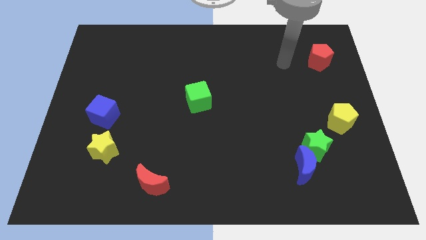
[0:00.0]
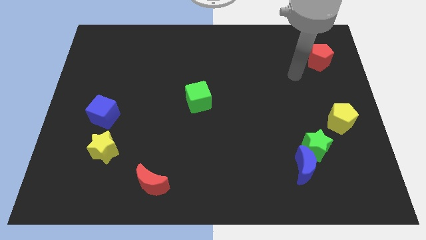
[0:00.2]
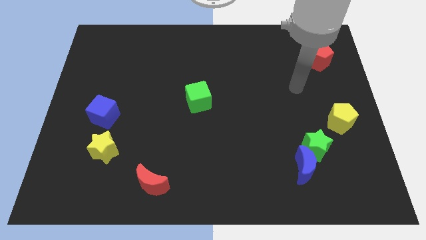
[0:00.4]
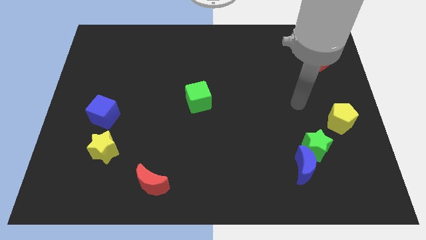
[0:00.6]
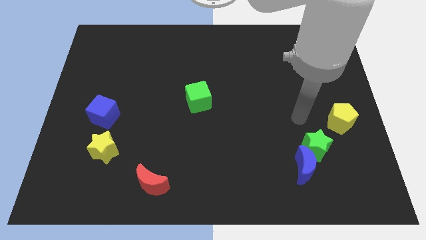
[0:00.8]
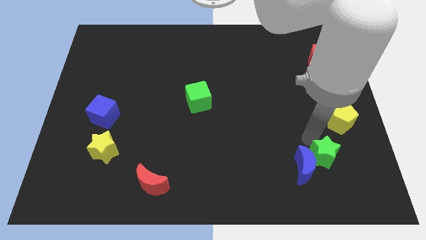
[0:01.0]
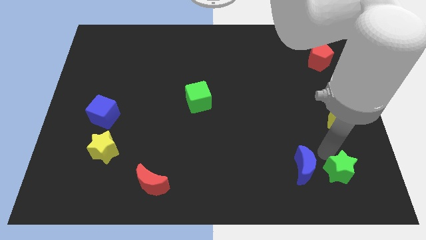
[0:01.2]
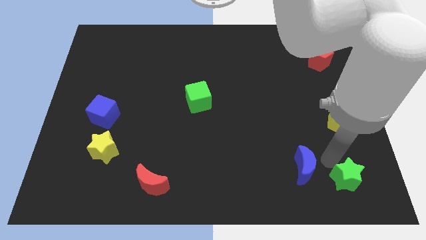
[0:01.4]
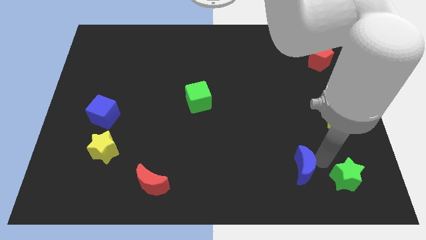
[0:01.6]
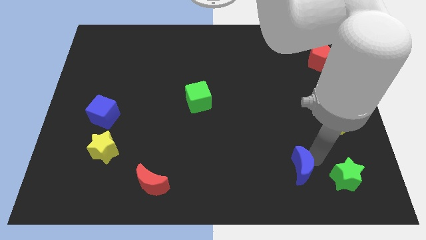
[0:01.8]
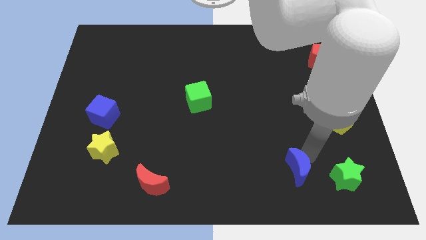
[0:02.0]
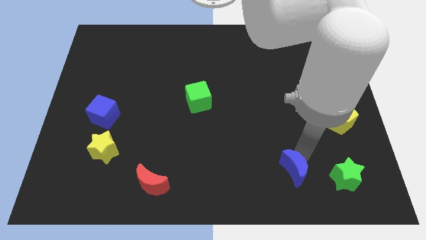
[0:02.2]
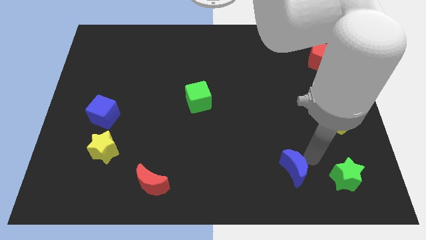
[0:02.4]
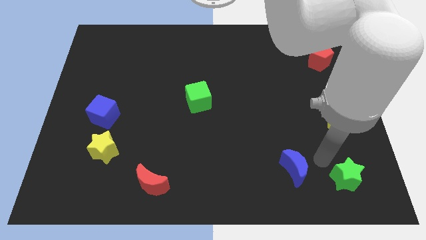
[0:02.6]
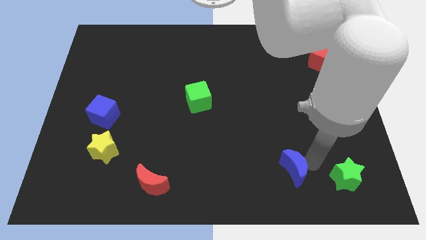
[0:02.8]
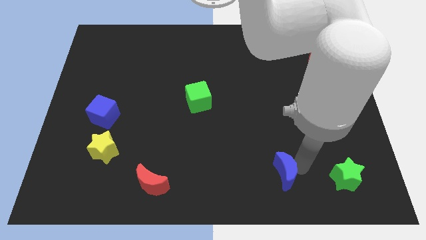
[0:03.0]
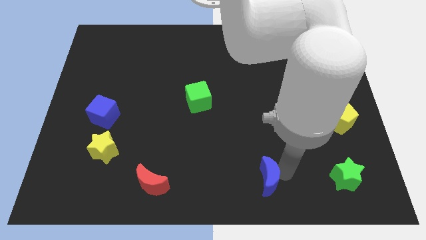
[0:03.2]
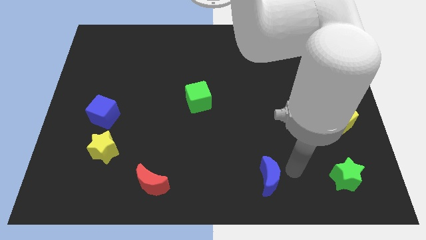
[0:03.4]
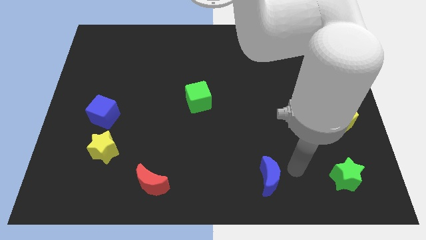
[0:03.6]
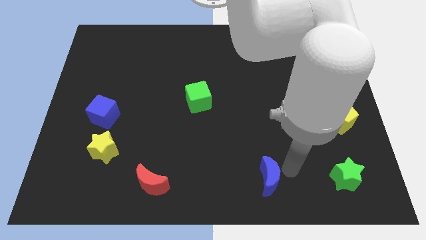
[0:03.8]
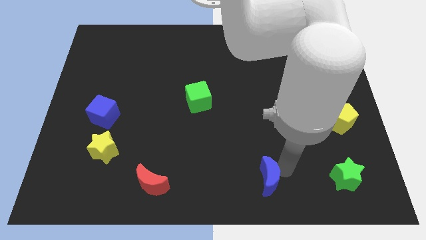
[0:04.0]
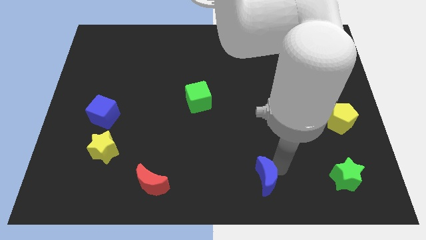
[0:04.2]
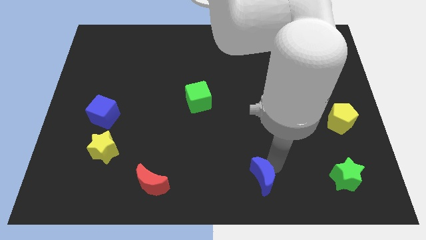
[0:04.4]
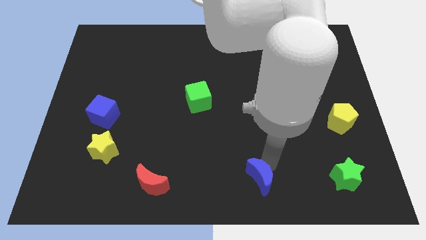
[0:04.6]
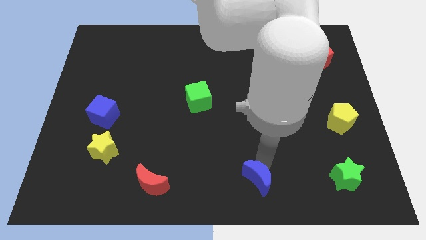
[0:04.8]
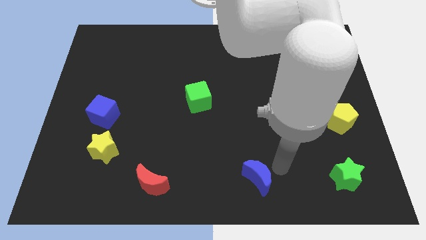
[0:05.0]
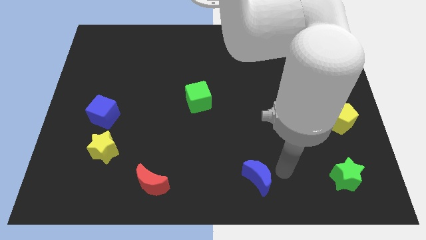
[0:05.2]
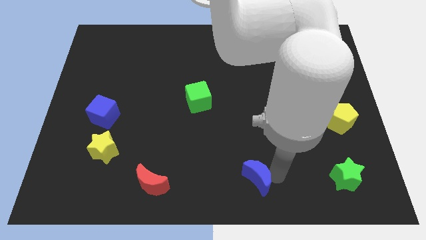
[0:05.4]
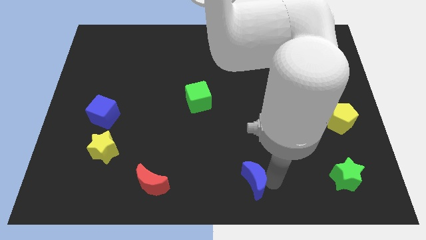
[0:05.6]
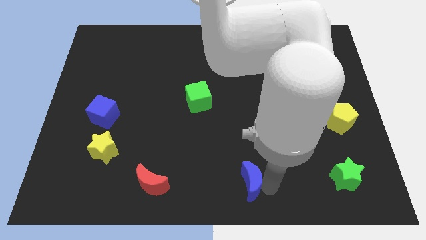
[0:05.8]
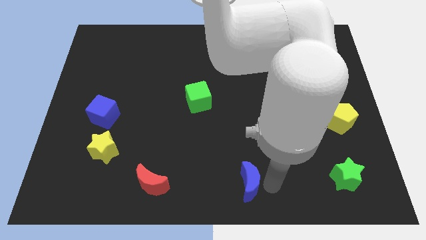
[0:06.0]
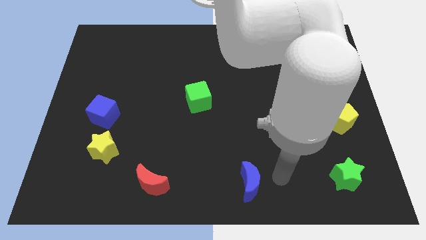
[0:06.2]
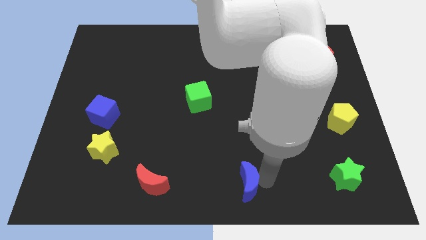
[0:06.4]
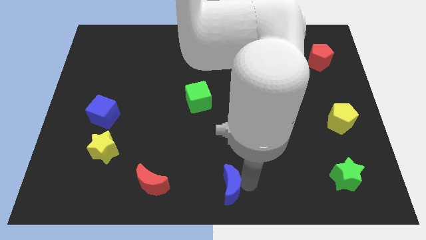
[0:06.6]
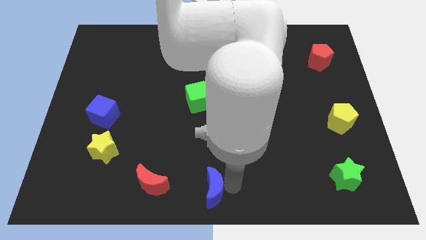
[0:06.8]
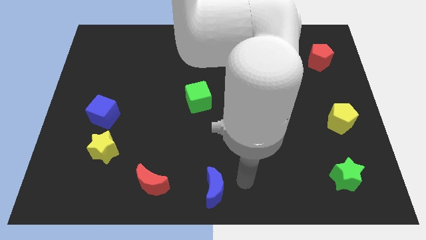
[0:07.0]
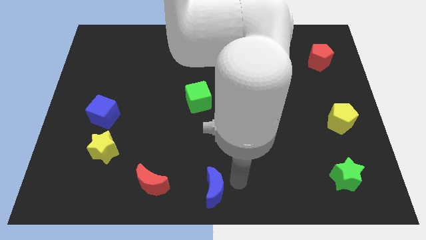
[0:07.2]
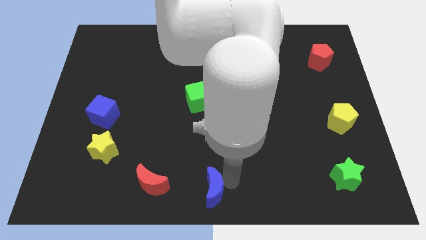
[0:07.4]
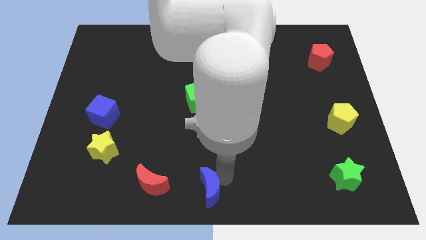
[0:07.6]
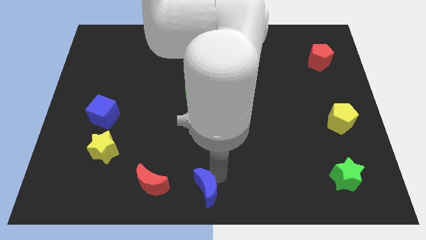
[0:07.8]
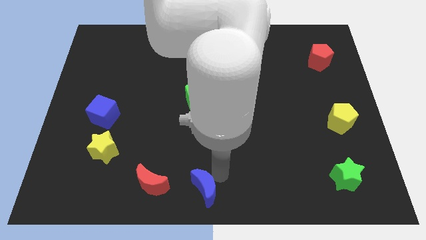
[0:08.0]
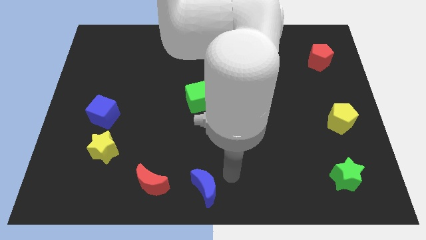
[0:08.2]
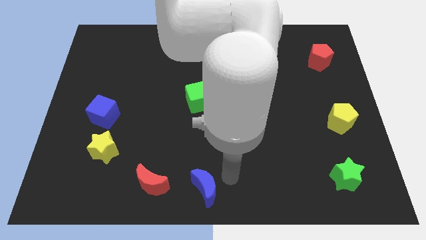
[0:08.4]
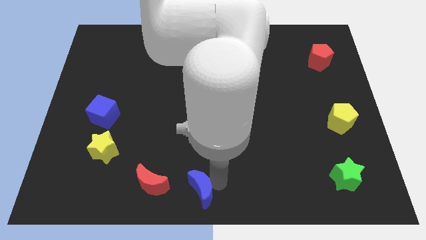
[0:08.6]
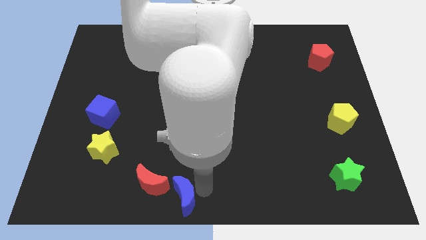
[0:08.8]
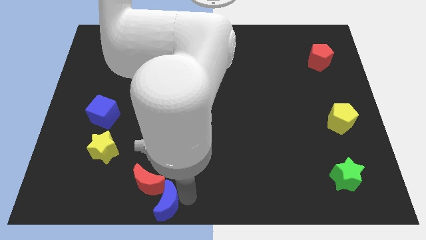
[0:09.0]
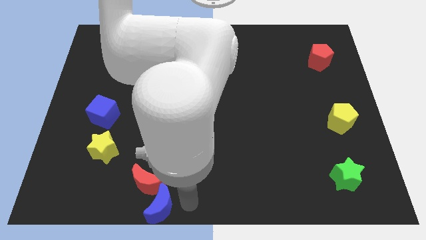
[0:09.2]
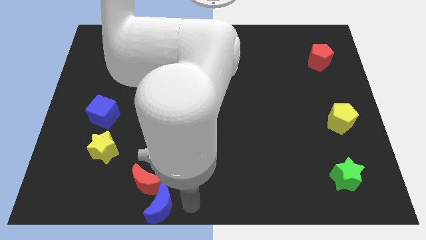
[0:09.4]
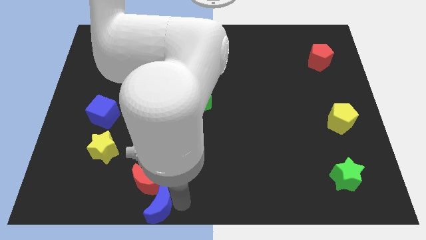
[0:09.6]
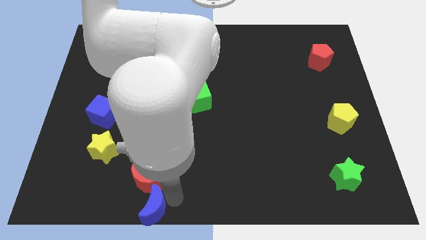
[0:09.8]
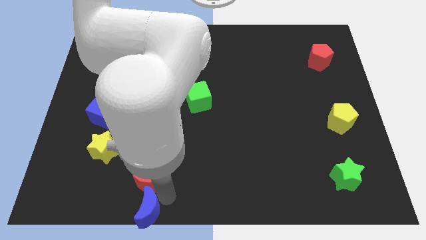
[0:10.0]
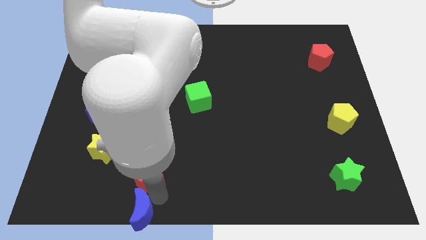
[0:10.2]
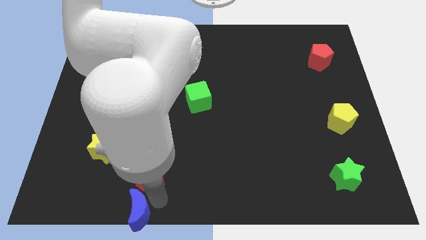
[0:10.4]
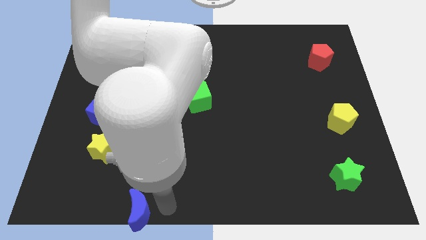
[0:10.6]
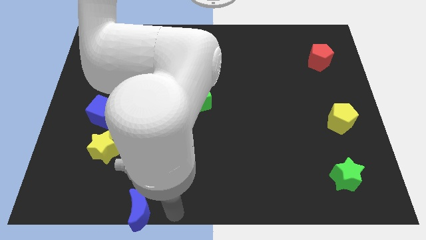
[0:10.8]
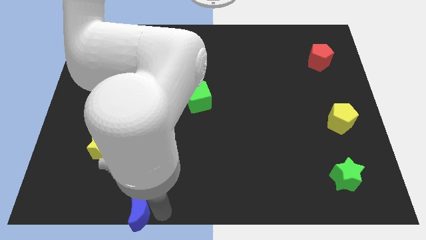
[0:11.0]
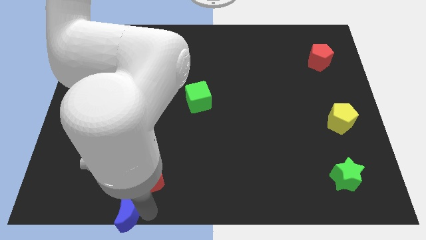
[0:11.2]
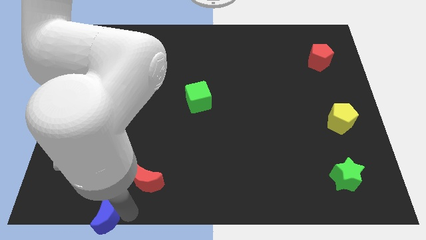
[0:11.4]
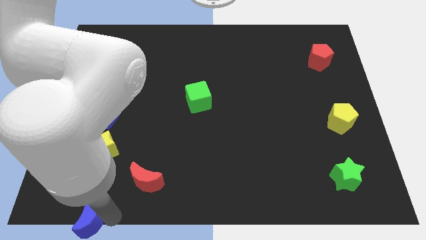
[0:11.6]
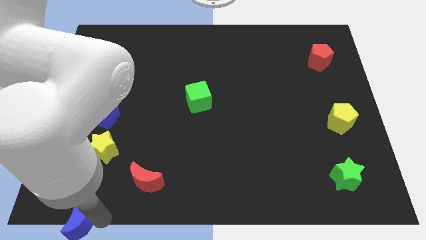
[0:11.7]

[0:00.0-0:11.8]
move the blue moon to the lower left corner
